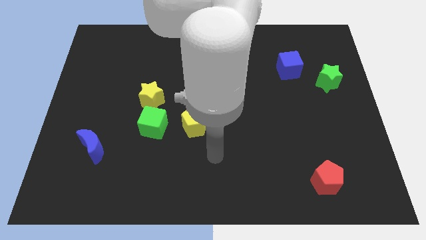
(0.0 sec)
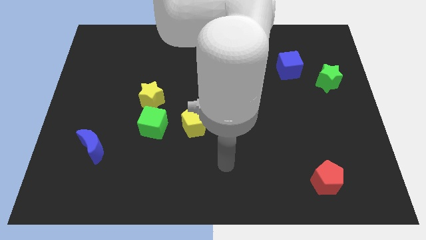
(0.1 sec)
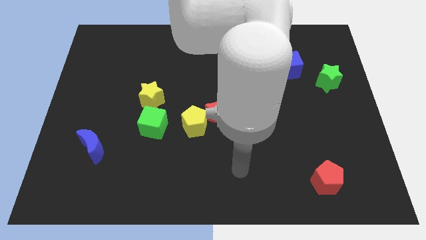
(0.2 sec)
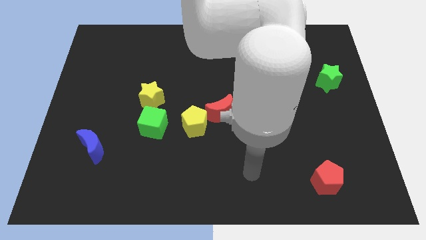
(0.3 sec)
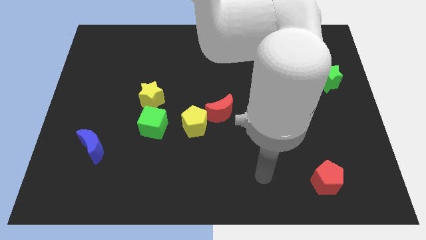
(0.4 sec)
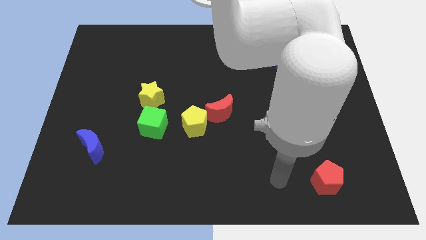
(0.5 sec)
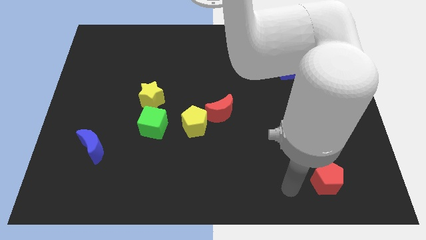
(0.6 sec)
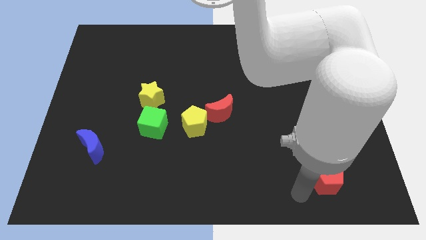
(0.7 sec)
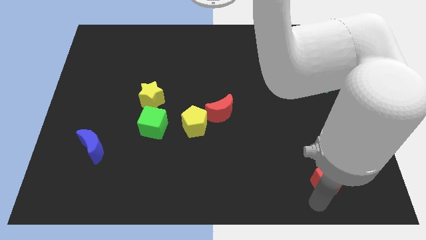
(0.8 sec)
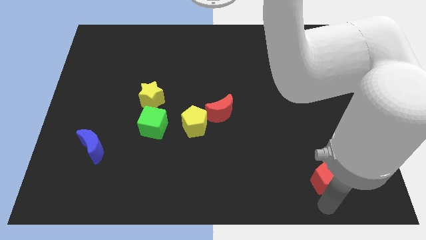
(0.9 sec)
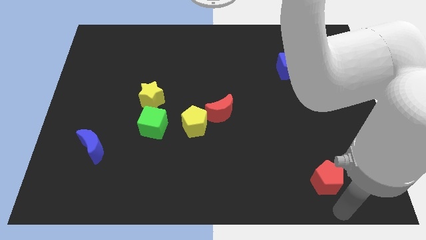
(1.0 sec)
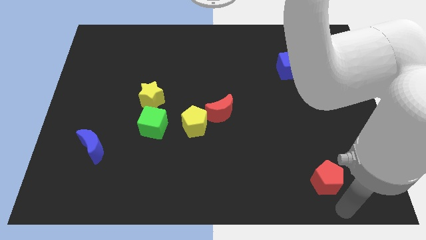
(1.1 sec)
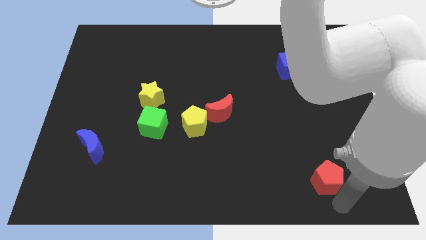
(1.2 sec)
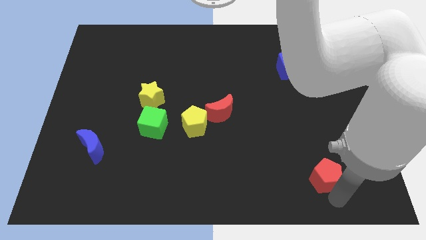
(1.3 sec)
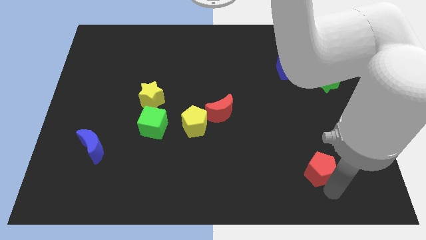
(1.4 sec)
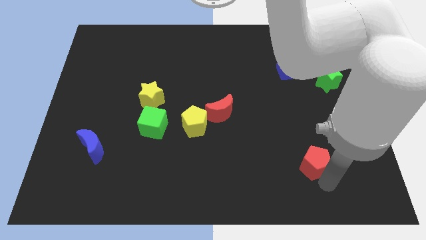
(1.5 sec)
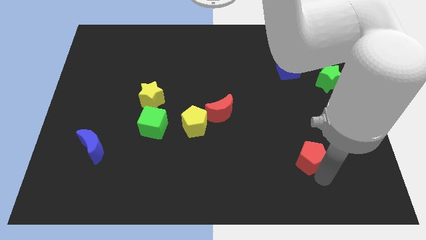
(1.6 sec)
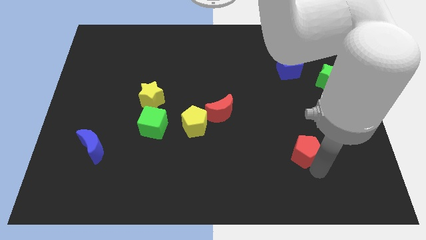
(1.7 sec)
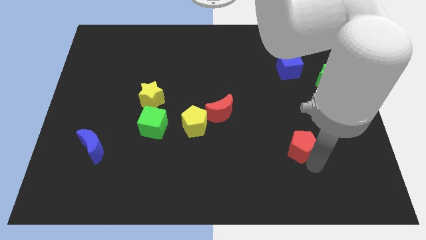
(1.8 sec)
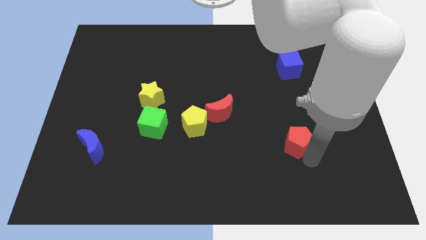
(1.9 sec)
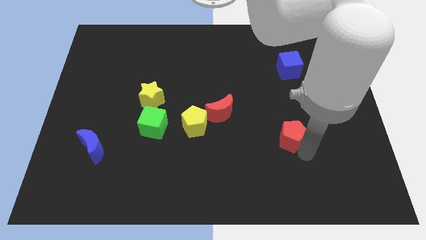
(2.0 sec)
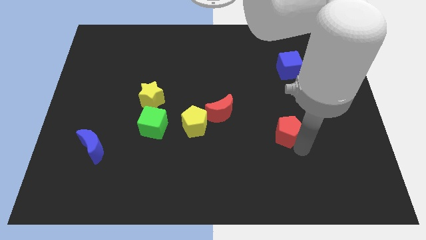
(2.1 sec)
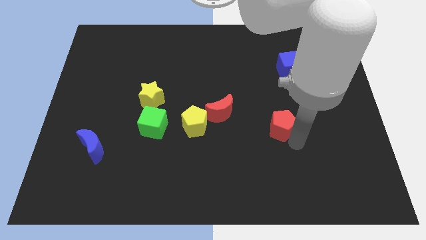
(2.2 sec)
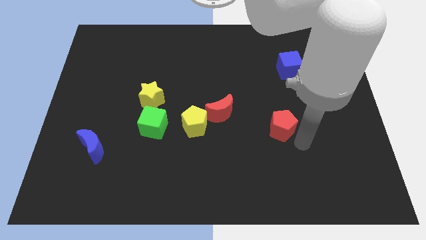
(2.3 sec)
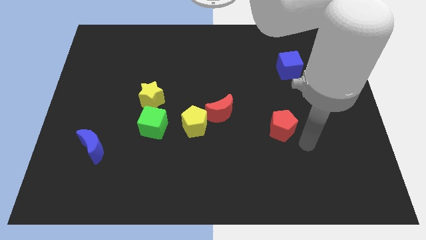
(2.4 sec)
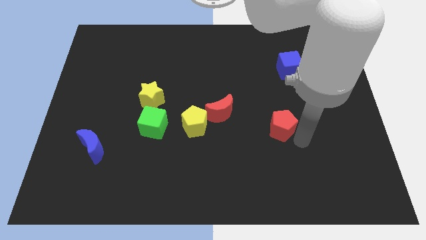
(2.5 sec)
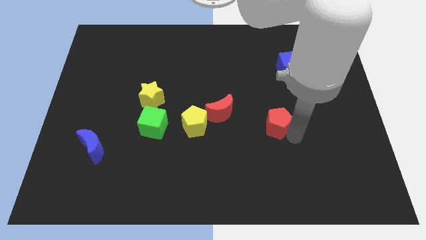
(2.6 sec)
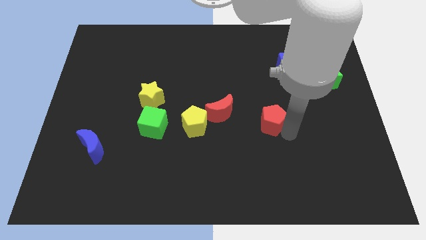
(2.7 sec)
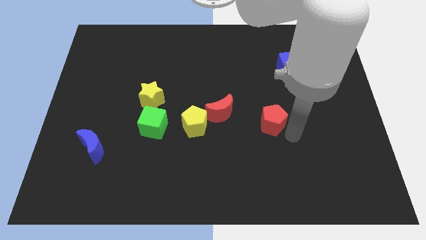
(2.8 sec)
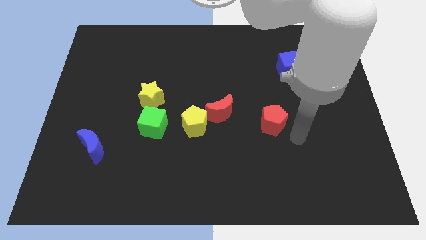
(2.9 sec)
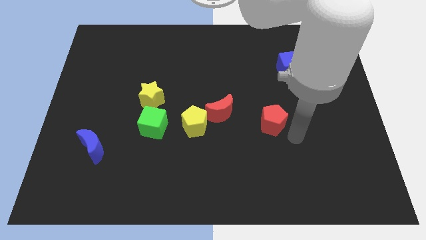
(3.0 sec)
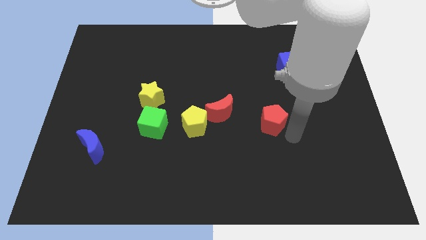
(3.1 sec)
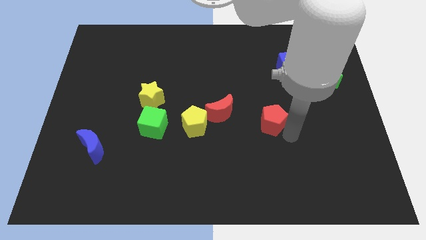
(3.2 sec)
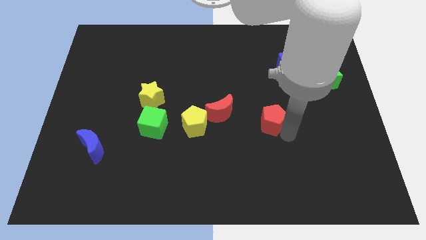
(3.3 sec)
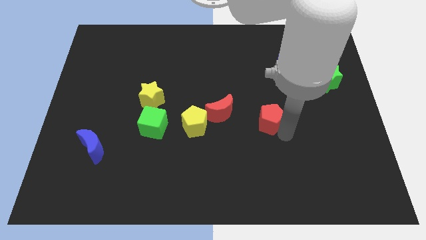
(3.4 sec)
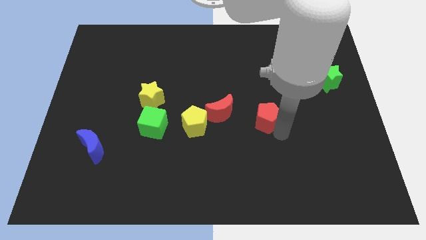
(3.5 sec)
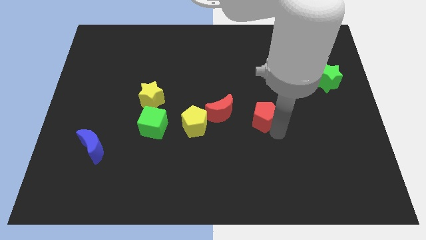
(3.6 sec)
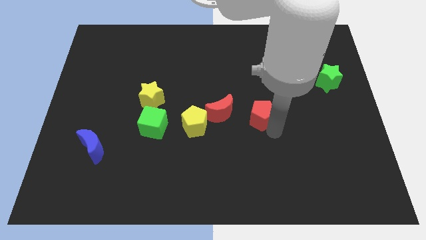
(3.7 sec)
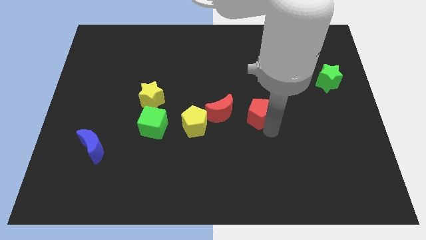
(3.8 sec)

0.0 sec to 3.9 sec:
push the red pentagon up and left diagonally

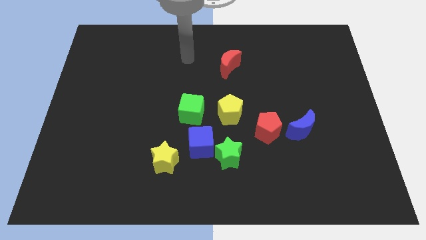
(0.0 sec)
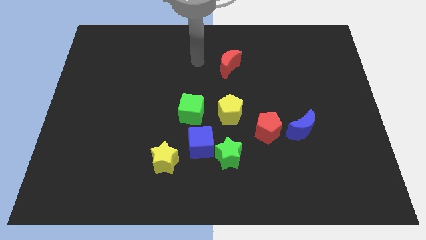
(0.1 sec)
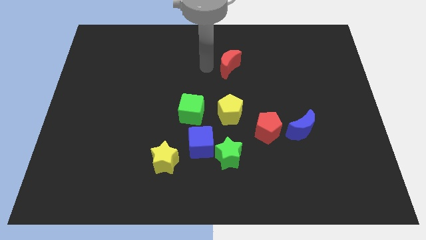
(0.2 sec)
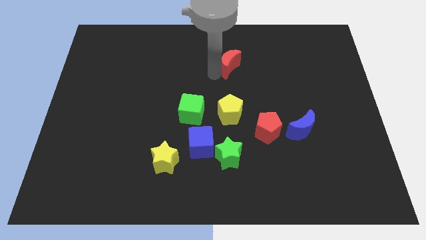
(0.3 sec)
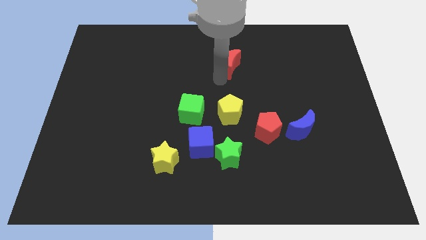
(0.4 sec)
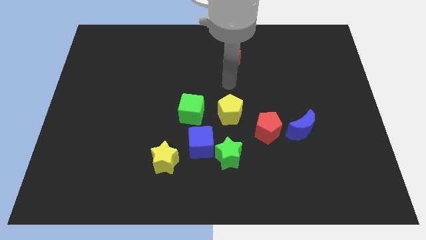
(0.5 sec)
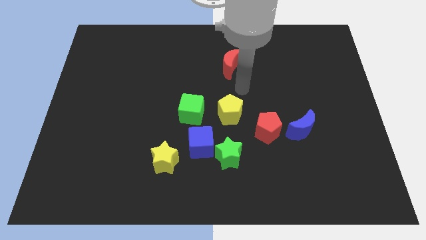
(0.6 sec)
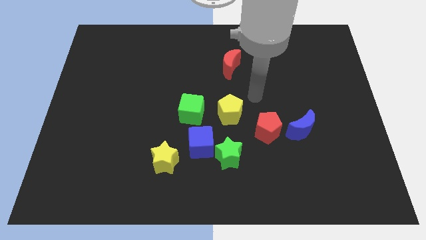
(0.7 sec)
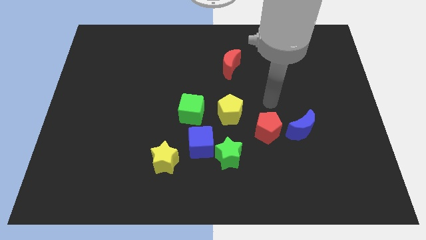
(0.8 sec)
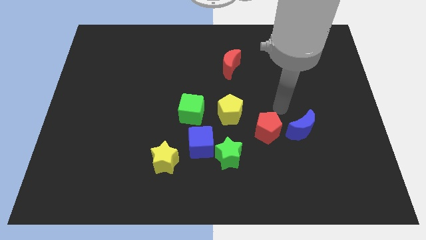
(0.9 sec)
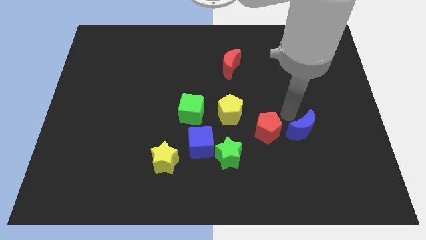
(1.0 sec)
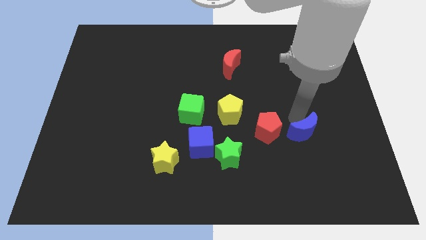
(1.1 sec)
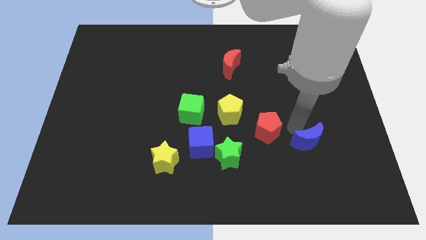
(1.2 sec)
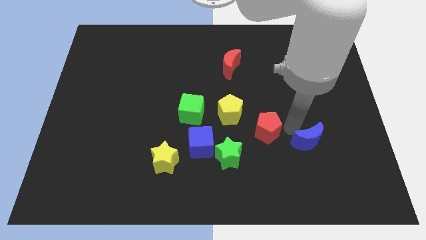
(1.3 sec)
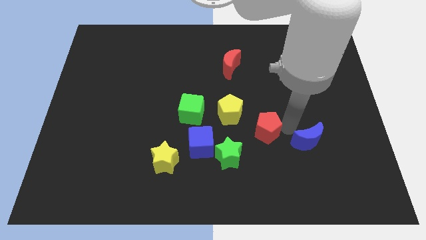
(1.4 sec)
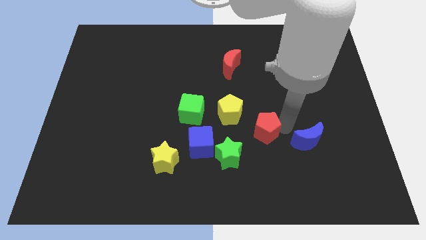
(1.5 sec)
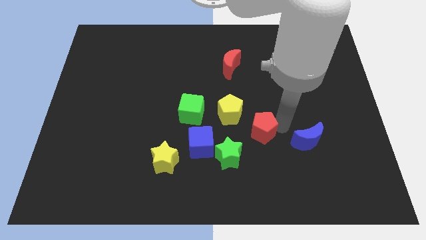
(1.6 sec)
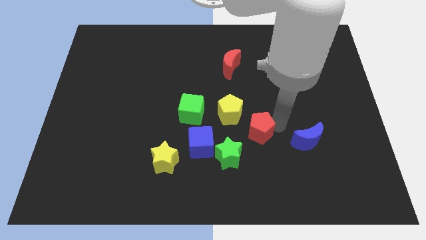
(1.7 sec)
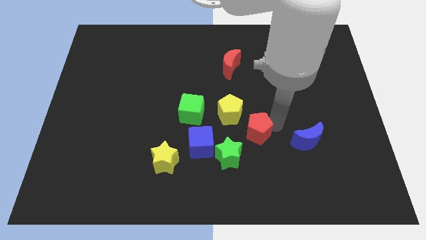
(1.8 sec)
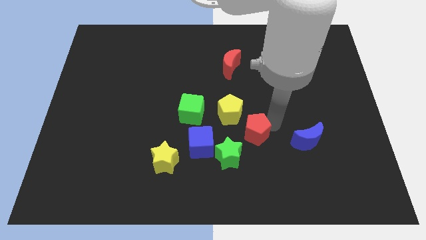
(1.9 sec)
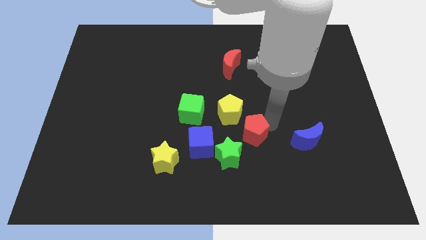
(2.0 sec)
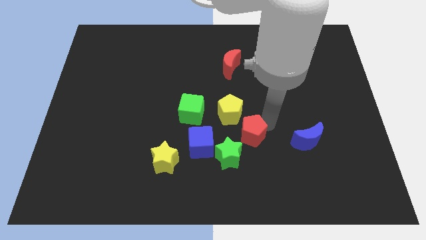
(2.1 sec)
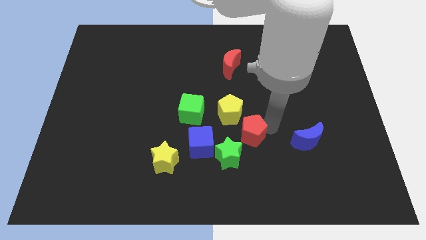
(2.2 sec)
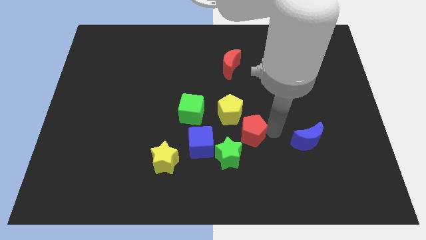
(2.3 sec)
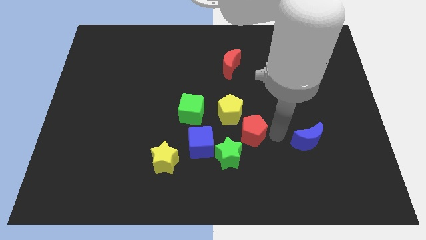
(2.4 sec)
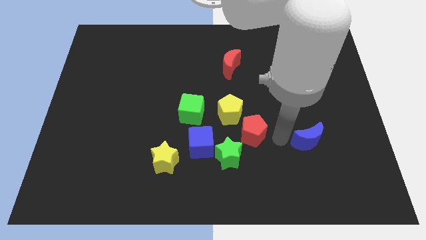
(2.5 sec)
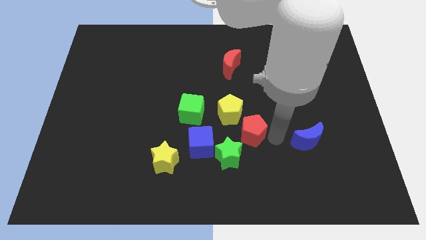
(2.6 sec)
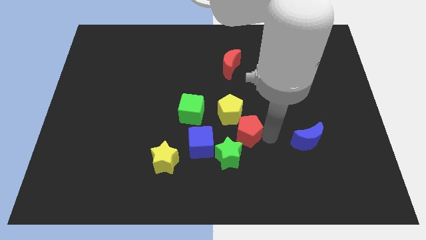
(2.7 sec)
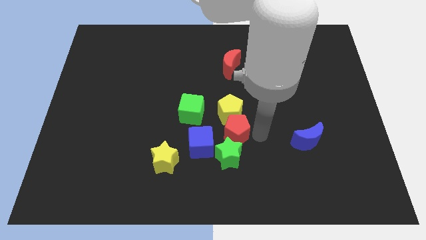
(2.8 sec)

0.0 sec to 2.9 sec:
slide the red pentagon to the left a little bit

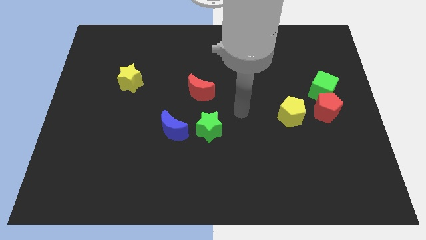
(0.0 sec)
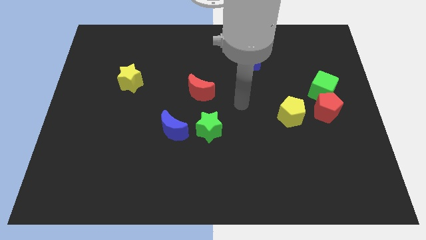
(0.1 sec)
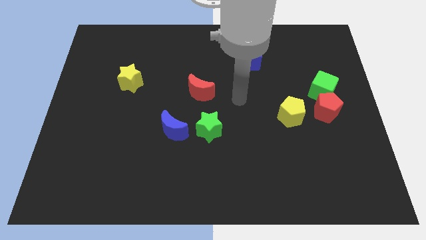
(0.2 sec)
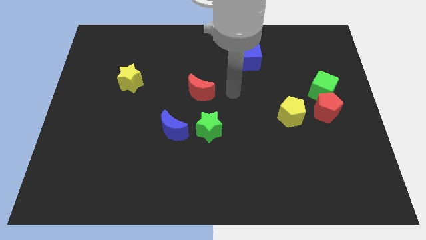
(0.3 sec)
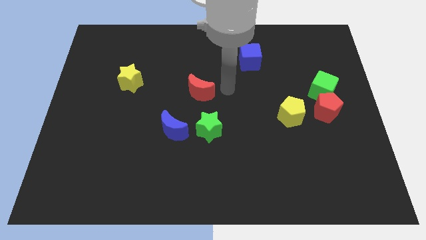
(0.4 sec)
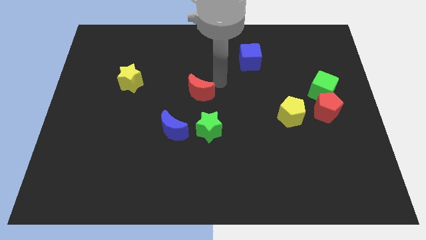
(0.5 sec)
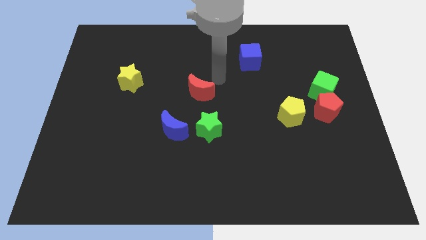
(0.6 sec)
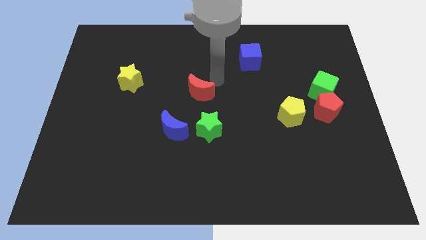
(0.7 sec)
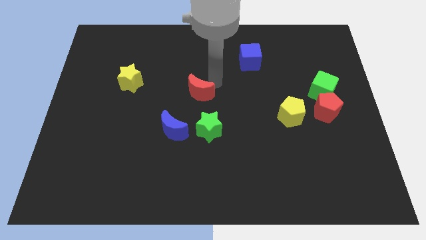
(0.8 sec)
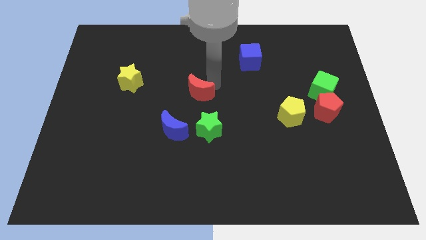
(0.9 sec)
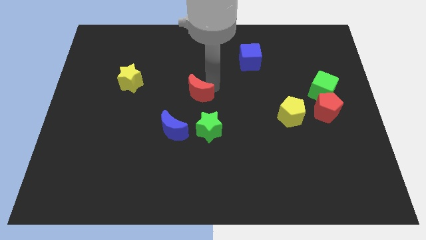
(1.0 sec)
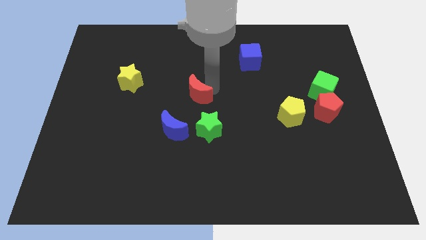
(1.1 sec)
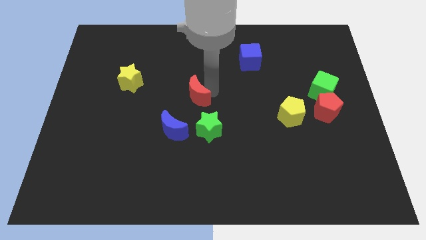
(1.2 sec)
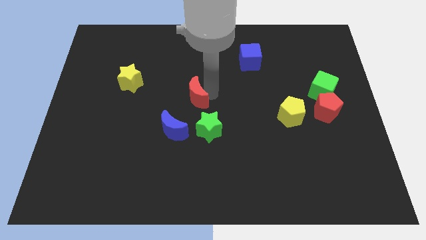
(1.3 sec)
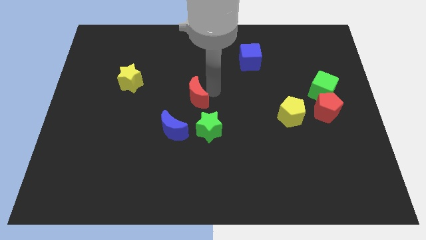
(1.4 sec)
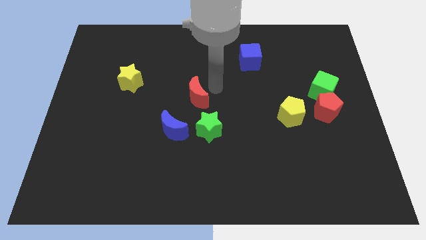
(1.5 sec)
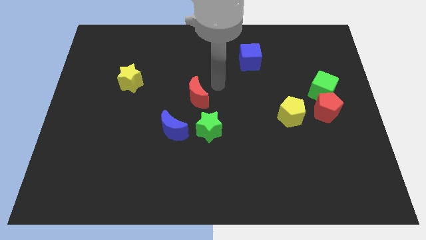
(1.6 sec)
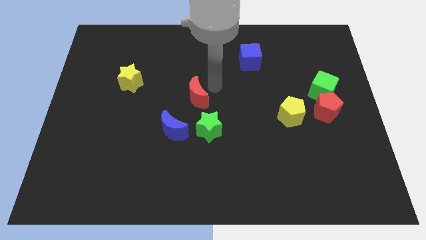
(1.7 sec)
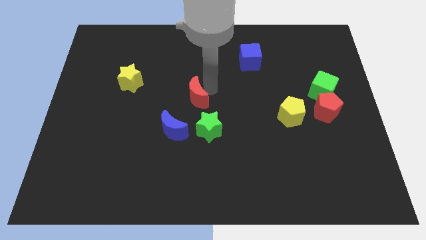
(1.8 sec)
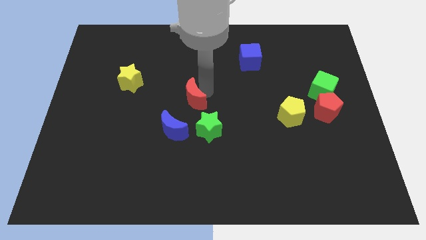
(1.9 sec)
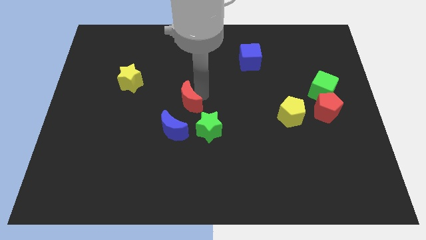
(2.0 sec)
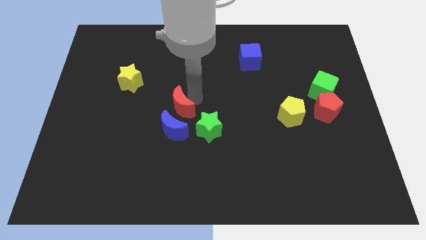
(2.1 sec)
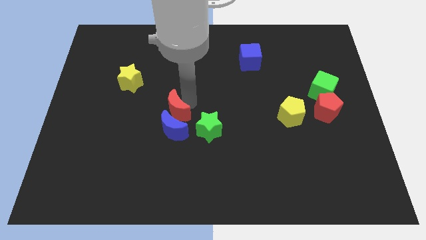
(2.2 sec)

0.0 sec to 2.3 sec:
move the red moon down and to the left diagonally a bit
